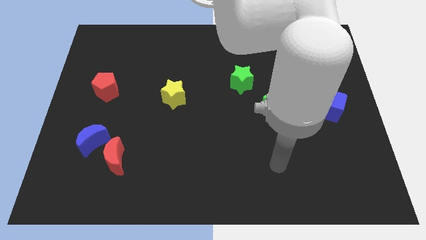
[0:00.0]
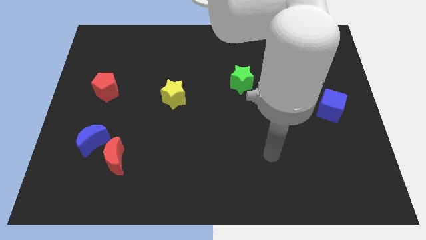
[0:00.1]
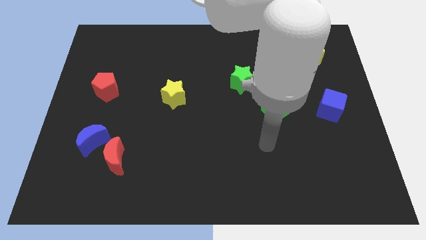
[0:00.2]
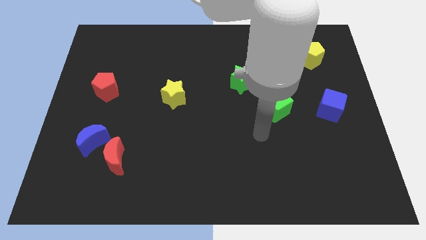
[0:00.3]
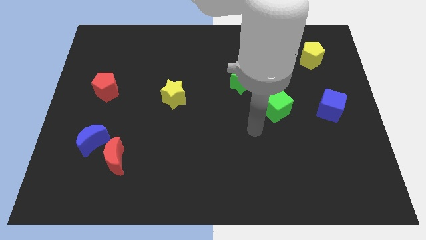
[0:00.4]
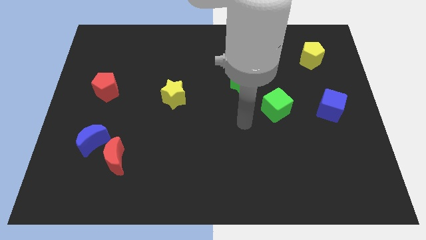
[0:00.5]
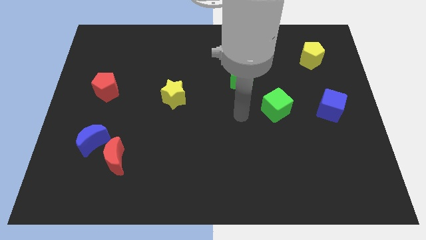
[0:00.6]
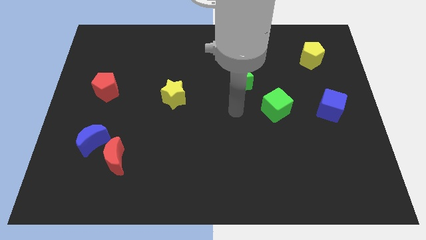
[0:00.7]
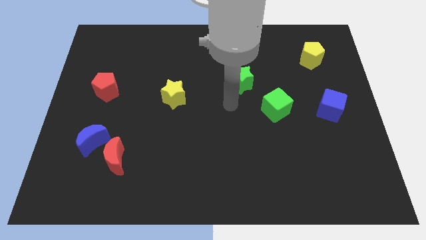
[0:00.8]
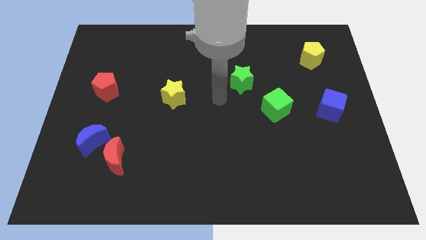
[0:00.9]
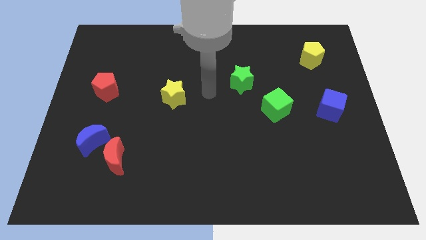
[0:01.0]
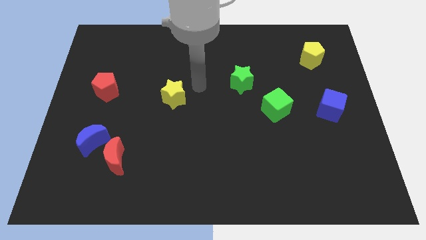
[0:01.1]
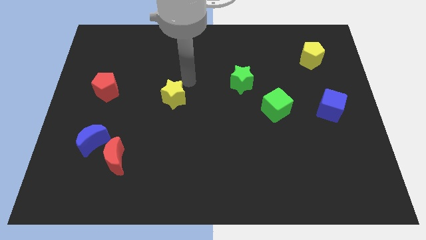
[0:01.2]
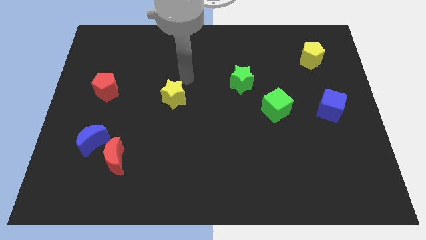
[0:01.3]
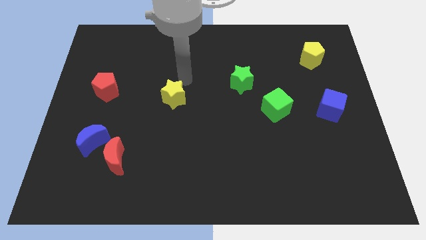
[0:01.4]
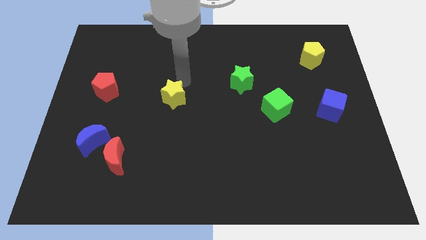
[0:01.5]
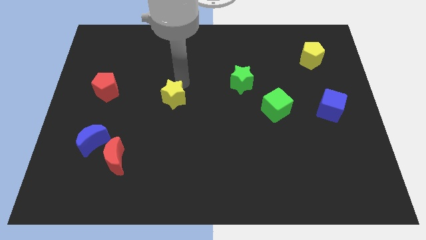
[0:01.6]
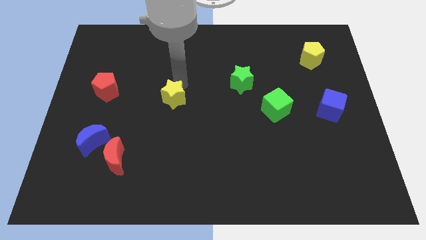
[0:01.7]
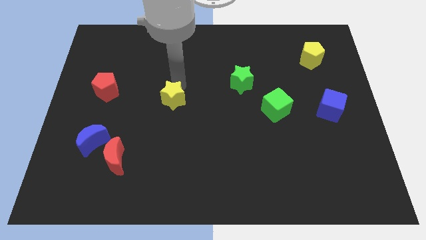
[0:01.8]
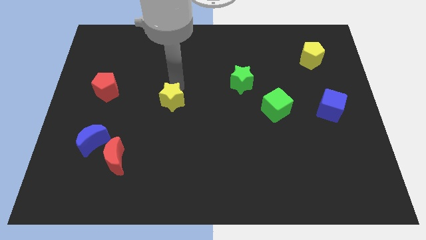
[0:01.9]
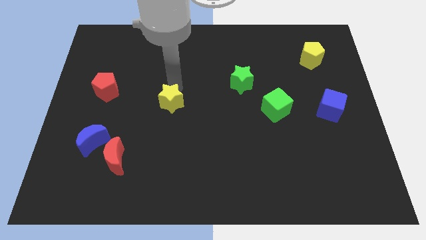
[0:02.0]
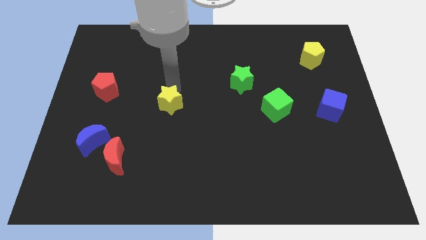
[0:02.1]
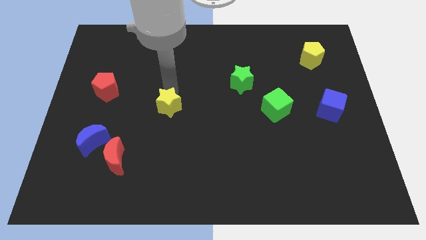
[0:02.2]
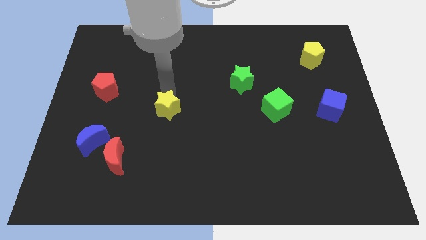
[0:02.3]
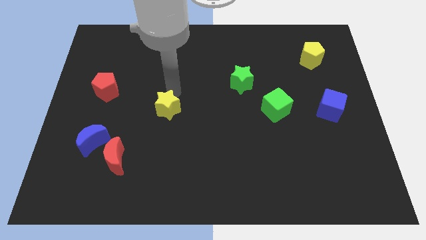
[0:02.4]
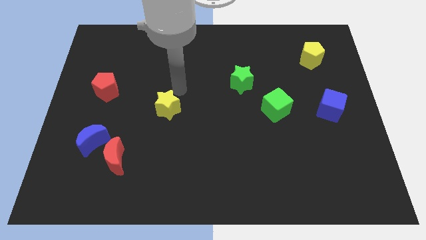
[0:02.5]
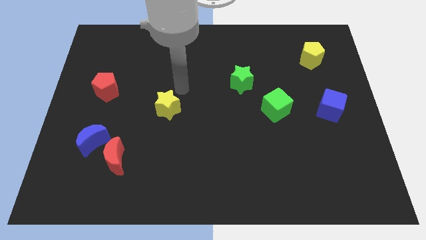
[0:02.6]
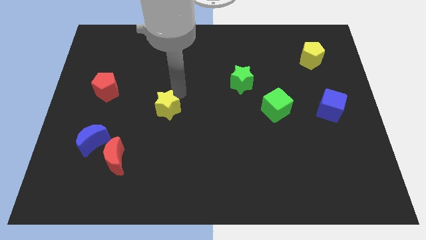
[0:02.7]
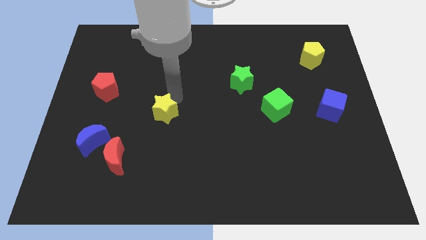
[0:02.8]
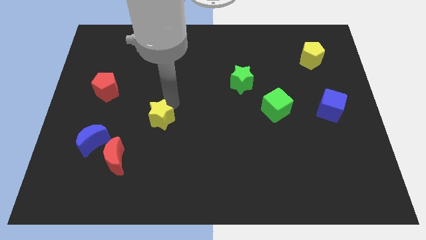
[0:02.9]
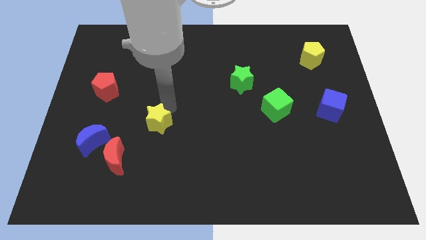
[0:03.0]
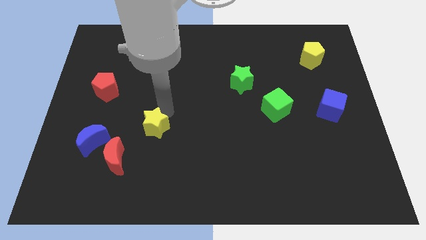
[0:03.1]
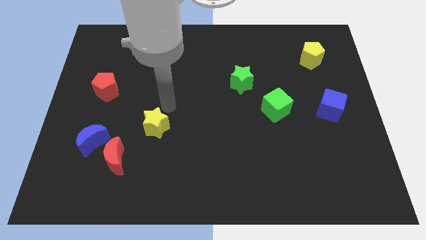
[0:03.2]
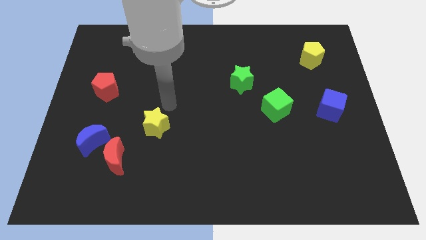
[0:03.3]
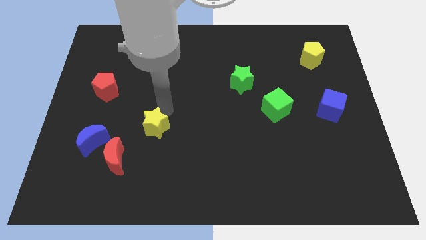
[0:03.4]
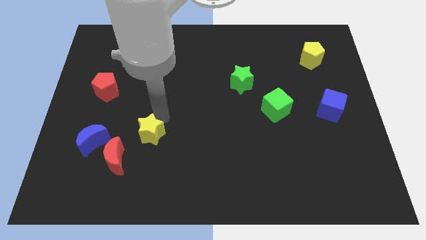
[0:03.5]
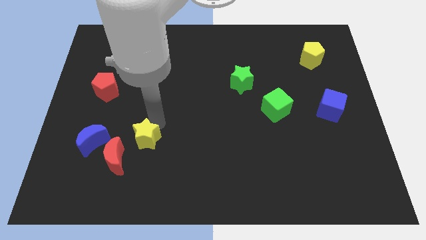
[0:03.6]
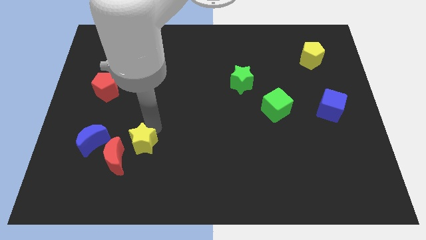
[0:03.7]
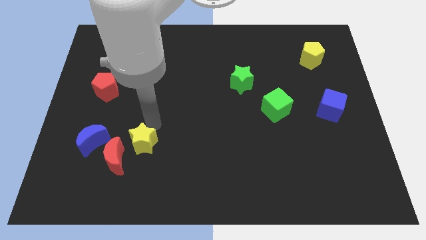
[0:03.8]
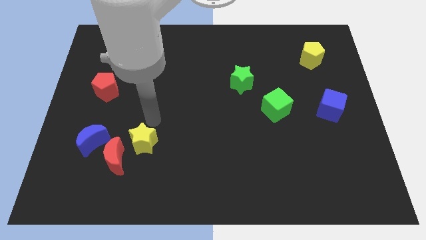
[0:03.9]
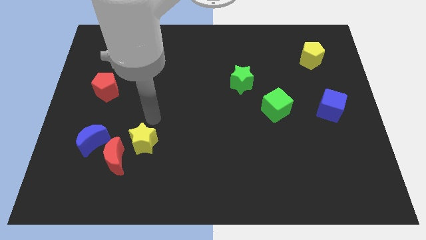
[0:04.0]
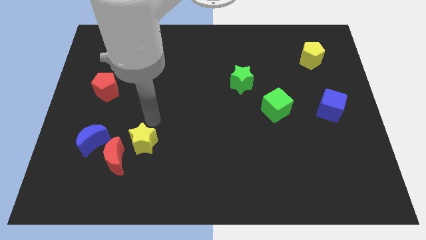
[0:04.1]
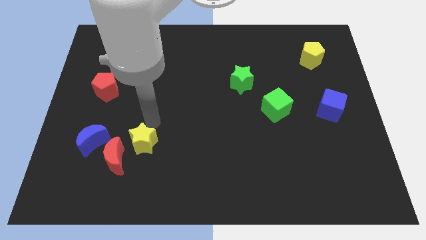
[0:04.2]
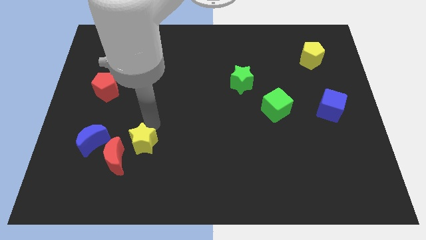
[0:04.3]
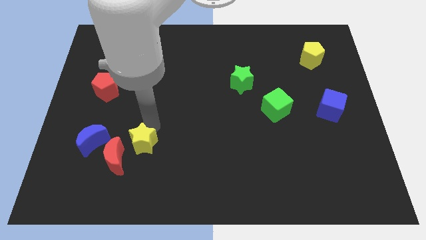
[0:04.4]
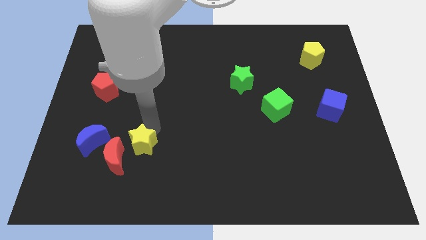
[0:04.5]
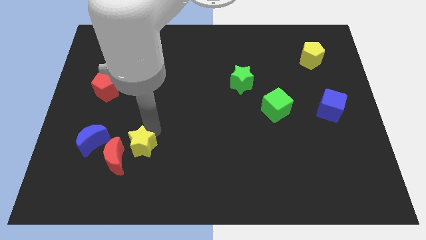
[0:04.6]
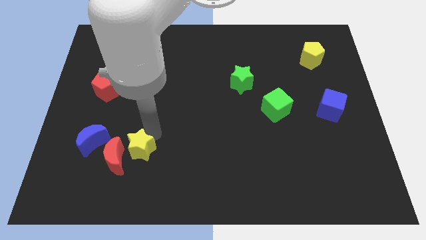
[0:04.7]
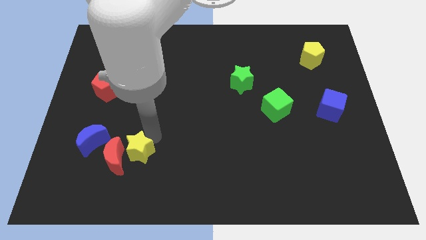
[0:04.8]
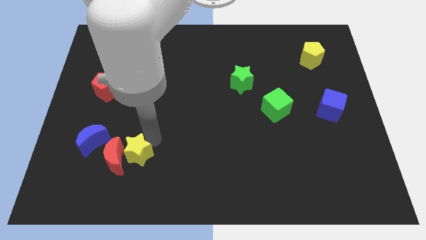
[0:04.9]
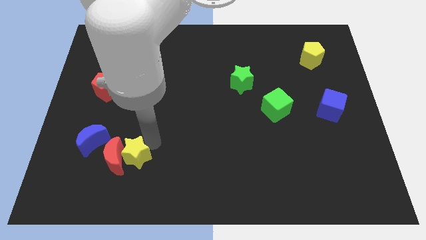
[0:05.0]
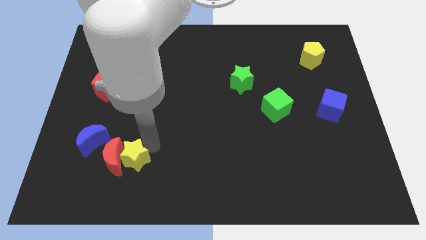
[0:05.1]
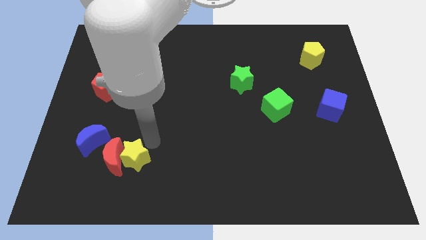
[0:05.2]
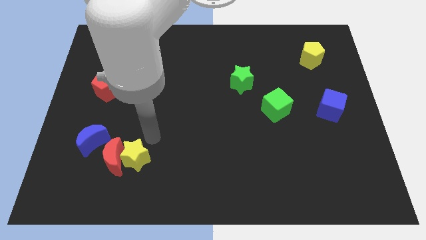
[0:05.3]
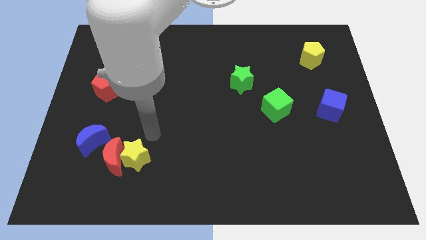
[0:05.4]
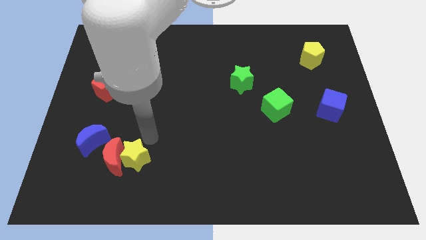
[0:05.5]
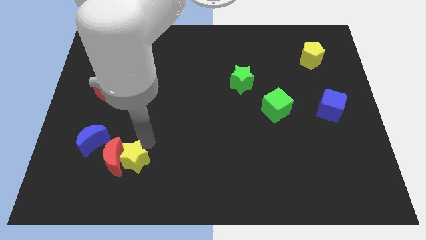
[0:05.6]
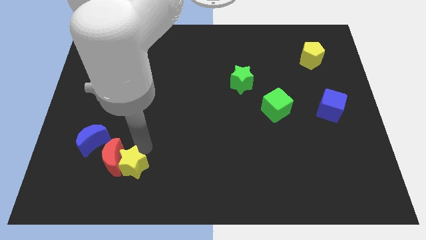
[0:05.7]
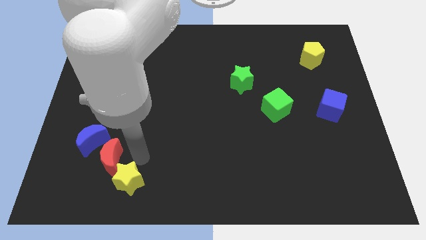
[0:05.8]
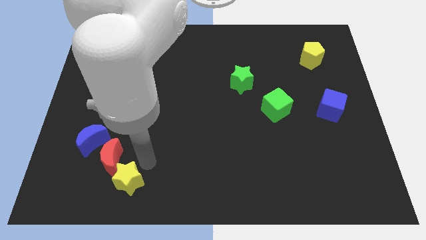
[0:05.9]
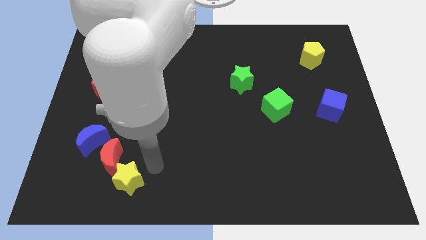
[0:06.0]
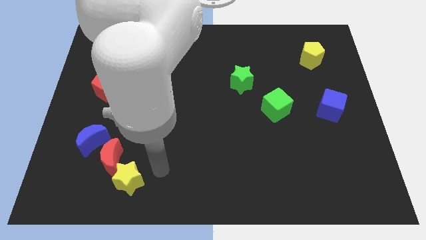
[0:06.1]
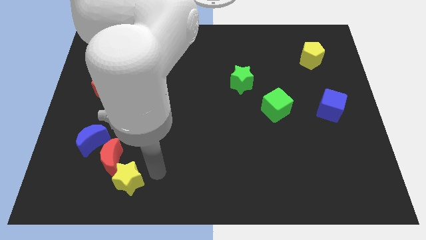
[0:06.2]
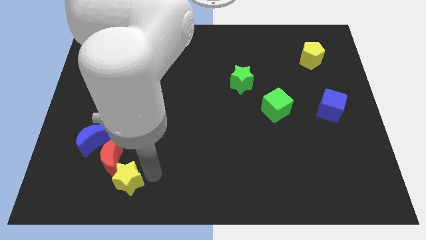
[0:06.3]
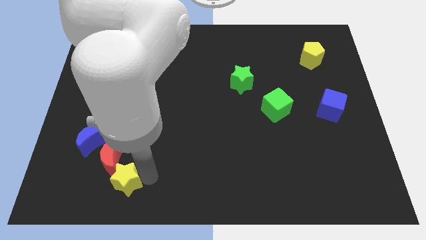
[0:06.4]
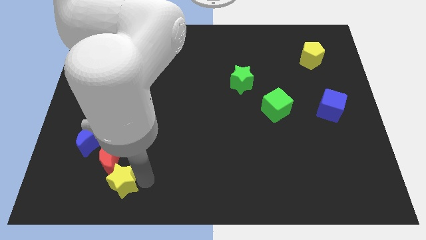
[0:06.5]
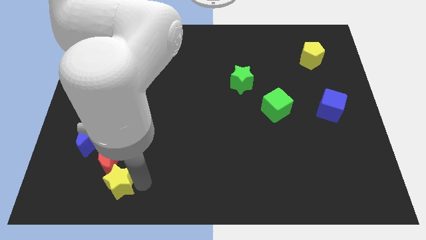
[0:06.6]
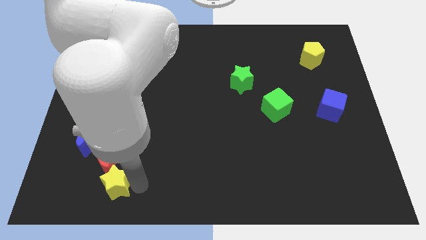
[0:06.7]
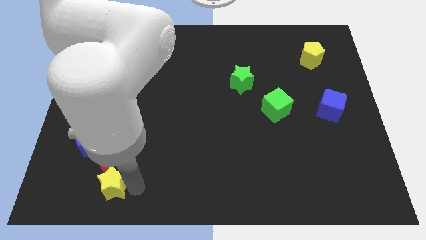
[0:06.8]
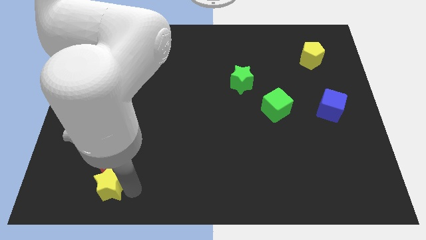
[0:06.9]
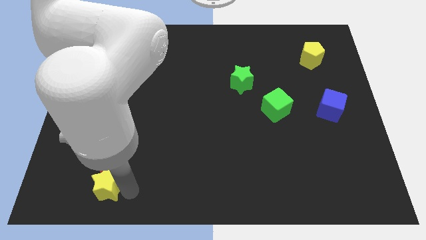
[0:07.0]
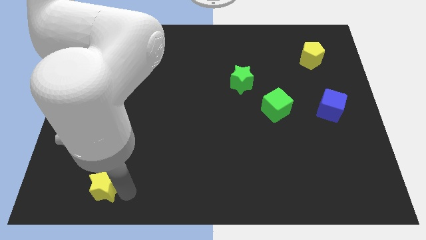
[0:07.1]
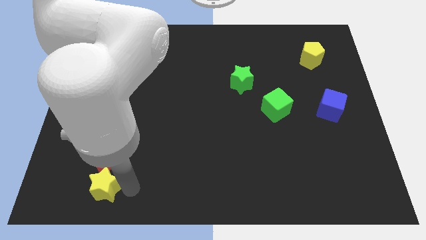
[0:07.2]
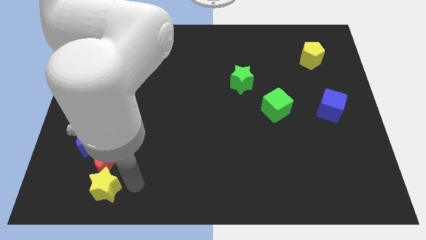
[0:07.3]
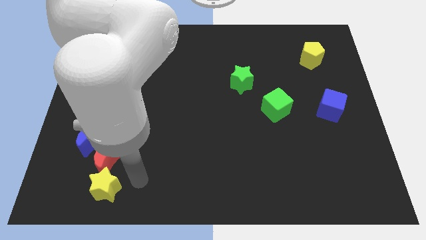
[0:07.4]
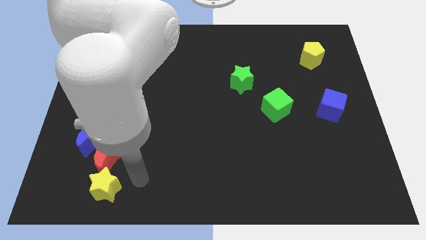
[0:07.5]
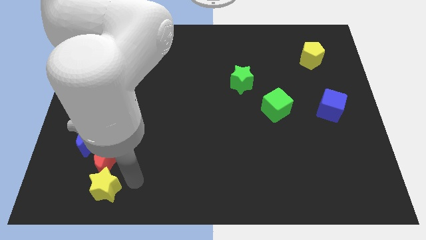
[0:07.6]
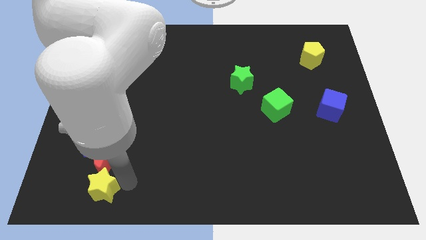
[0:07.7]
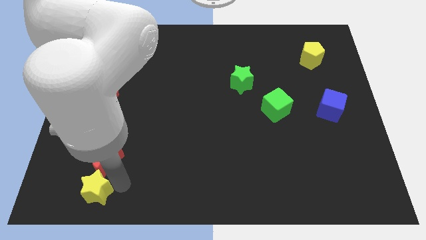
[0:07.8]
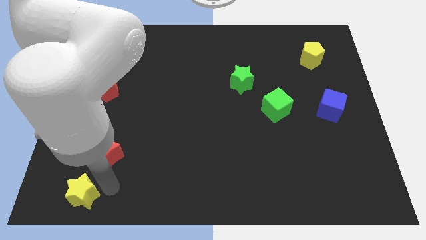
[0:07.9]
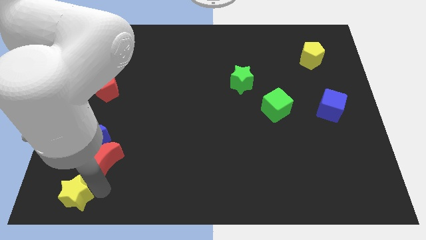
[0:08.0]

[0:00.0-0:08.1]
move the yellow star to the bottom left of the board
